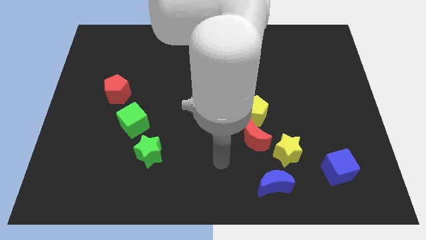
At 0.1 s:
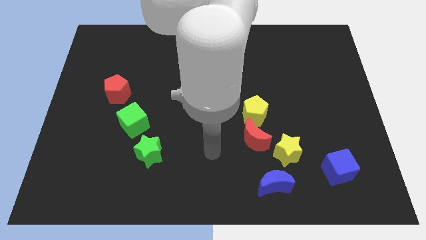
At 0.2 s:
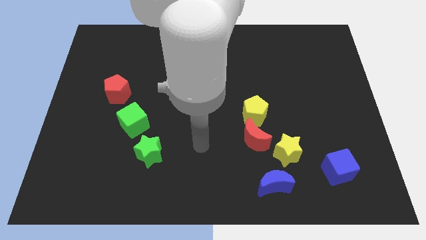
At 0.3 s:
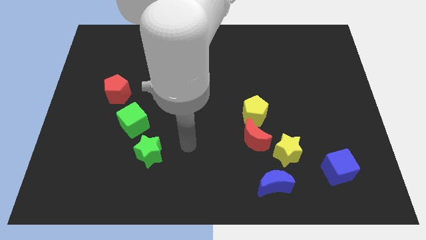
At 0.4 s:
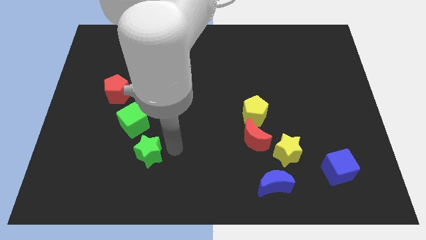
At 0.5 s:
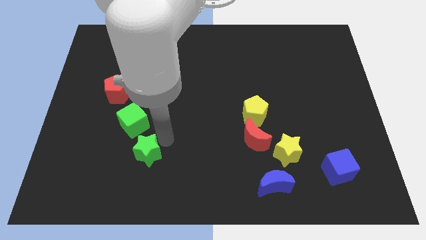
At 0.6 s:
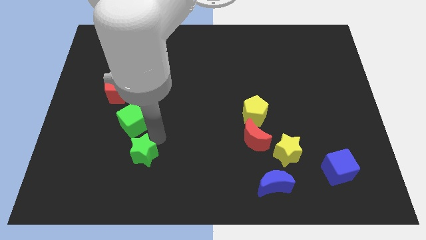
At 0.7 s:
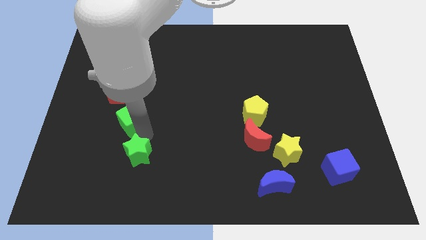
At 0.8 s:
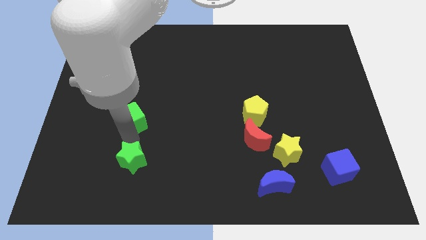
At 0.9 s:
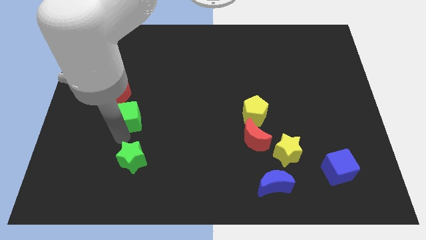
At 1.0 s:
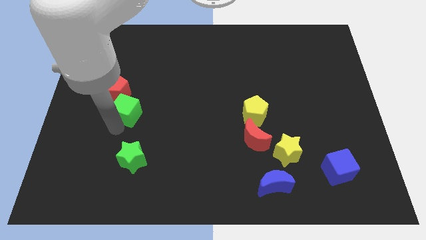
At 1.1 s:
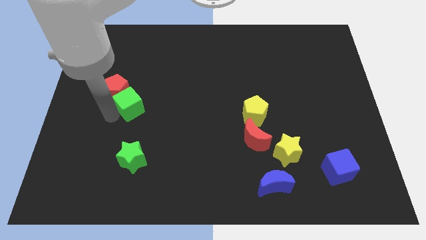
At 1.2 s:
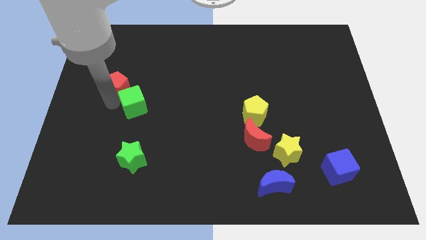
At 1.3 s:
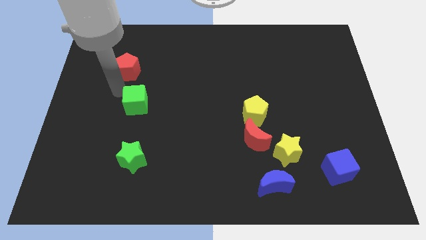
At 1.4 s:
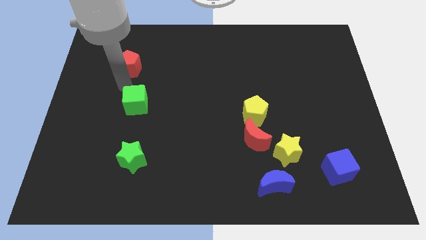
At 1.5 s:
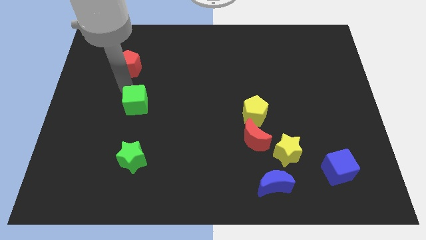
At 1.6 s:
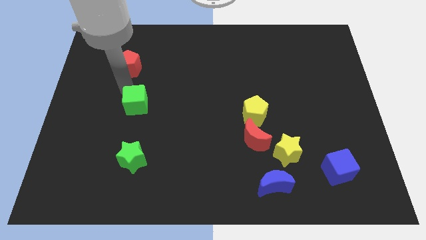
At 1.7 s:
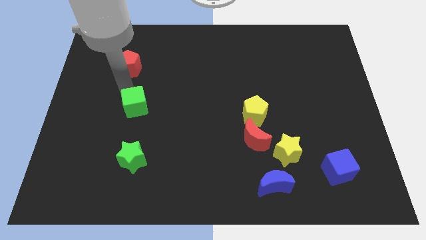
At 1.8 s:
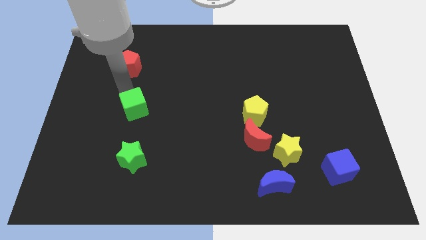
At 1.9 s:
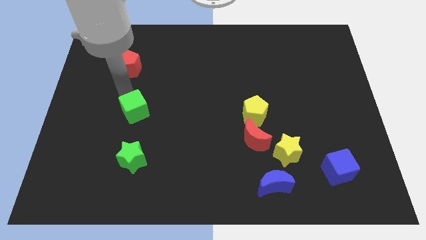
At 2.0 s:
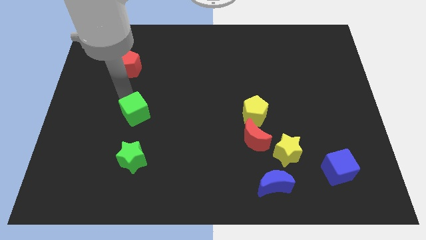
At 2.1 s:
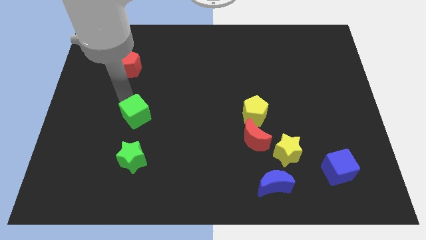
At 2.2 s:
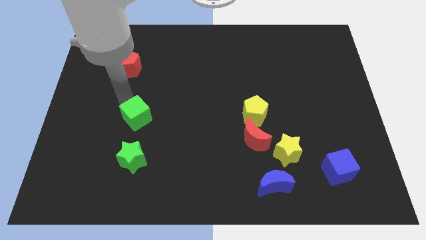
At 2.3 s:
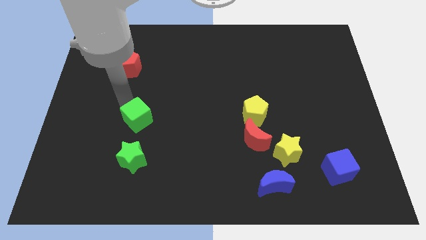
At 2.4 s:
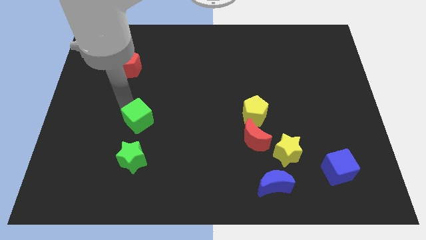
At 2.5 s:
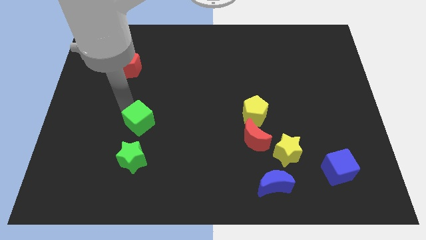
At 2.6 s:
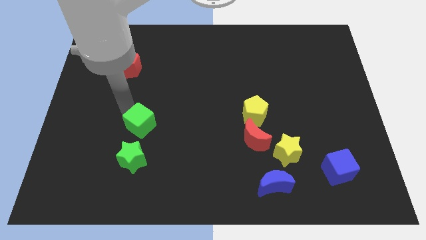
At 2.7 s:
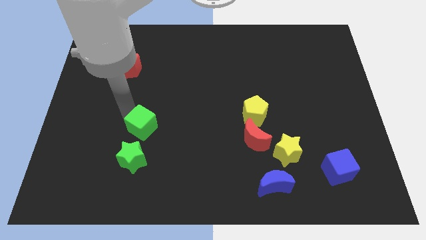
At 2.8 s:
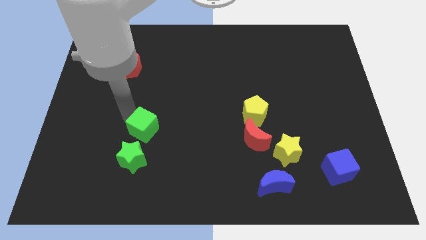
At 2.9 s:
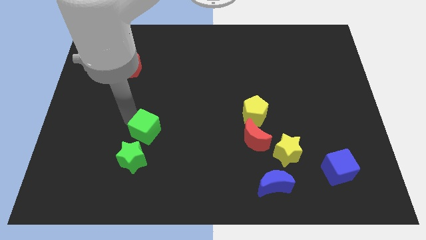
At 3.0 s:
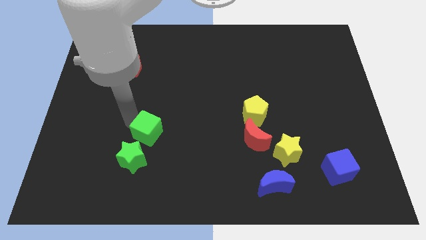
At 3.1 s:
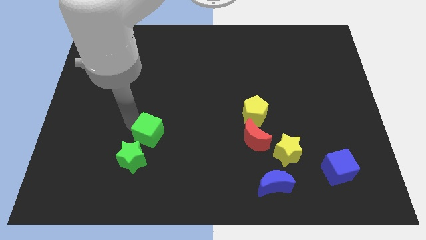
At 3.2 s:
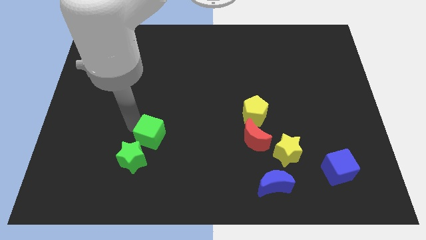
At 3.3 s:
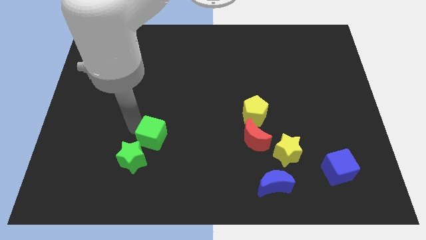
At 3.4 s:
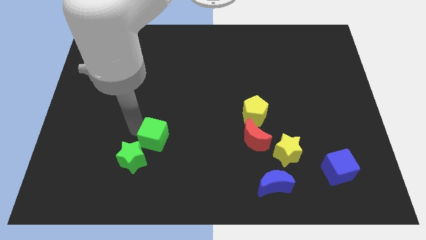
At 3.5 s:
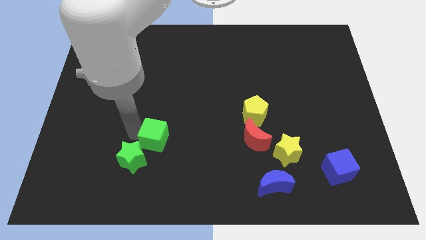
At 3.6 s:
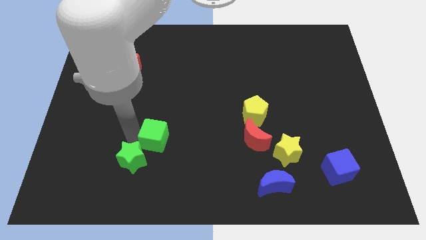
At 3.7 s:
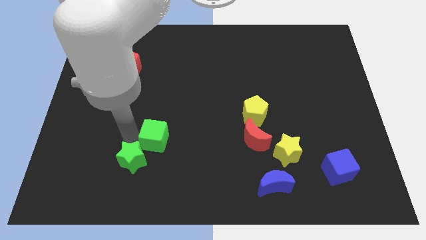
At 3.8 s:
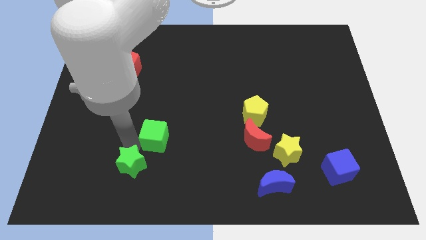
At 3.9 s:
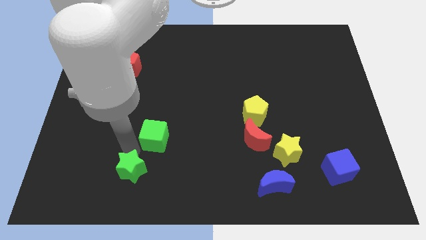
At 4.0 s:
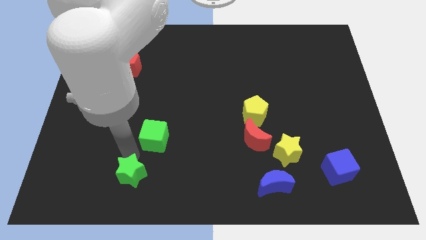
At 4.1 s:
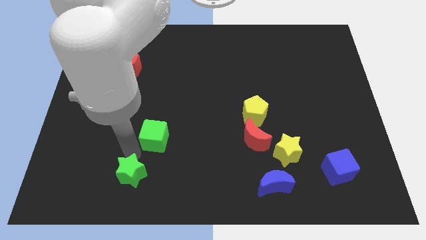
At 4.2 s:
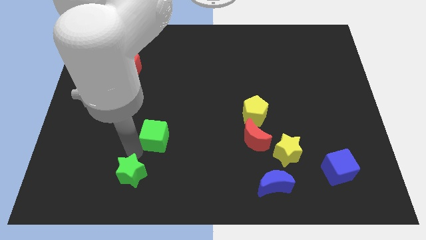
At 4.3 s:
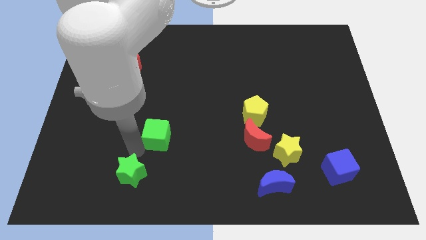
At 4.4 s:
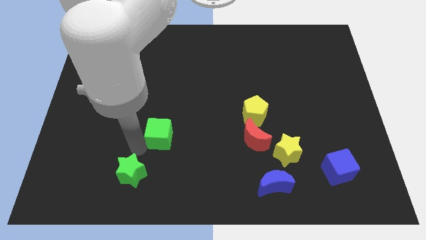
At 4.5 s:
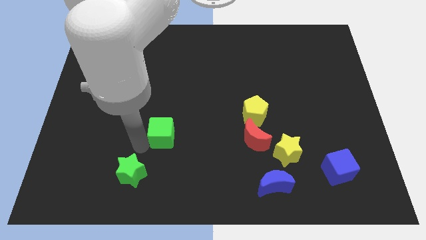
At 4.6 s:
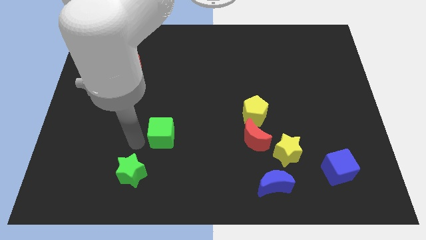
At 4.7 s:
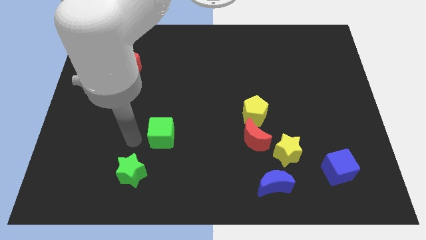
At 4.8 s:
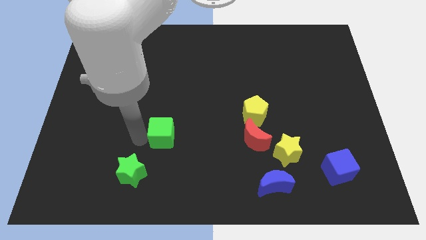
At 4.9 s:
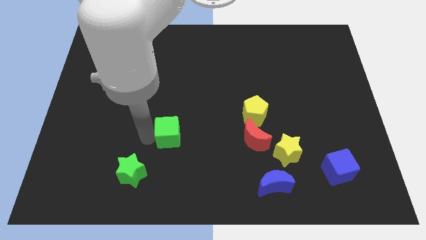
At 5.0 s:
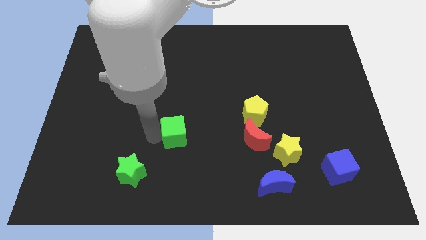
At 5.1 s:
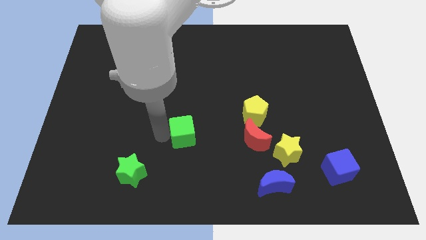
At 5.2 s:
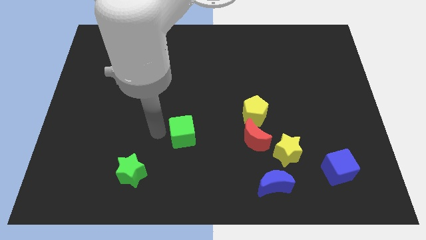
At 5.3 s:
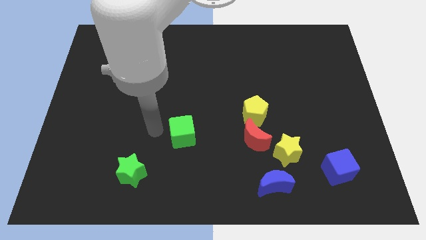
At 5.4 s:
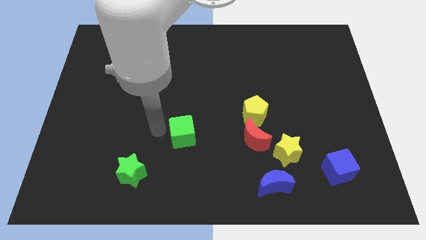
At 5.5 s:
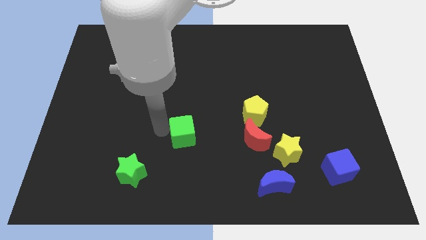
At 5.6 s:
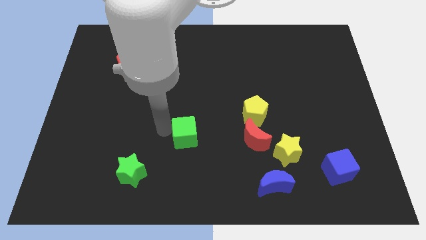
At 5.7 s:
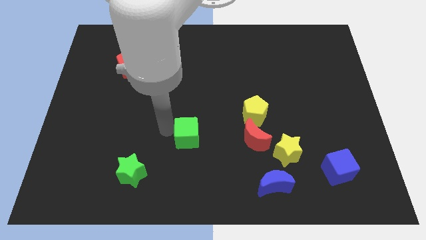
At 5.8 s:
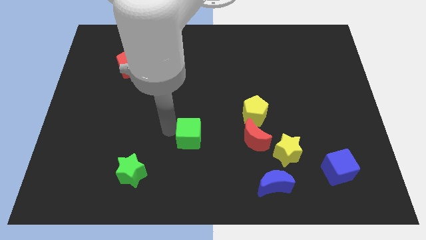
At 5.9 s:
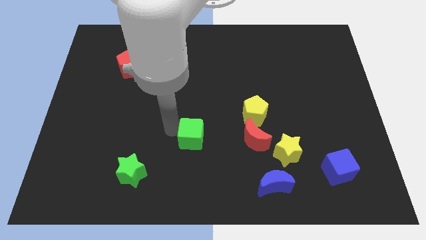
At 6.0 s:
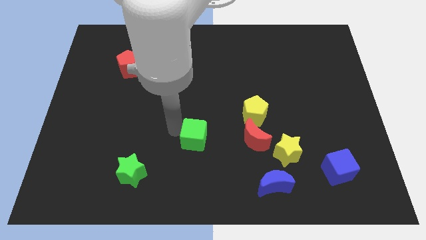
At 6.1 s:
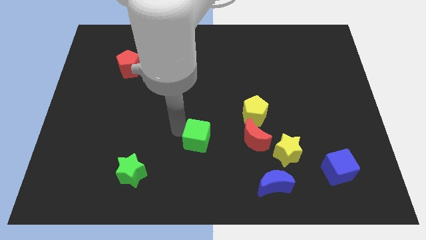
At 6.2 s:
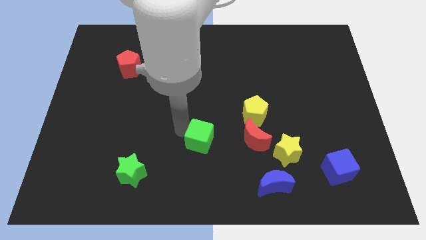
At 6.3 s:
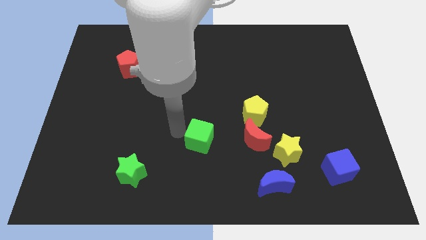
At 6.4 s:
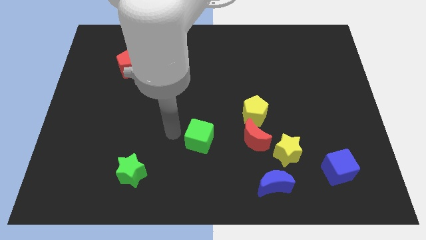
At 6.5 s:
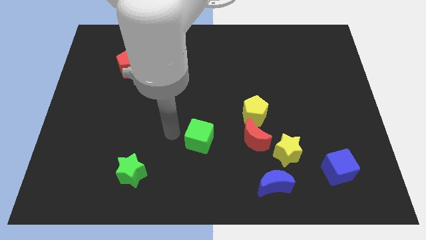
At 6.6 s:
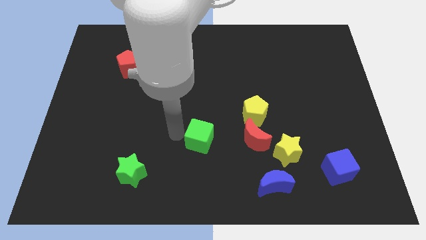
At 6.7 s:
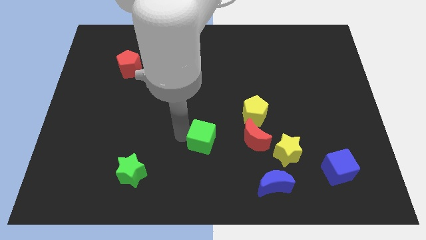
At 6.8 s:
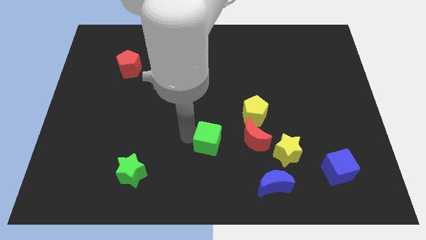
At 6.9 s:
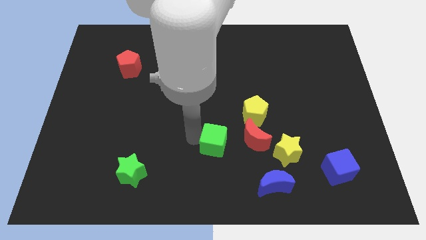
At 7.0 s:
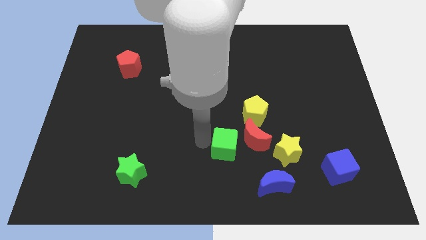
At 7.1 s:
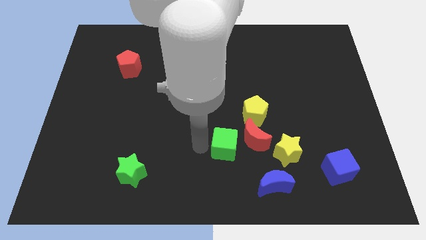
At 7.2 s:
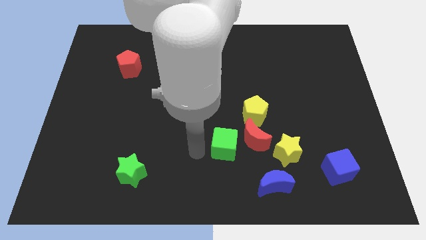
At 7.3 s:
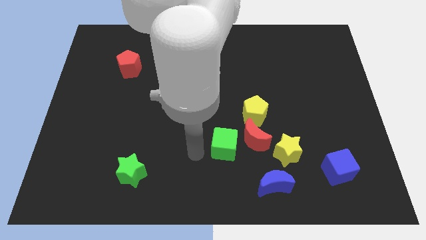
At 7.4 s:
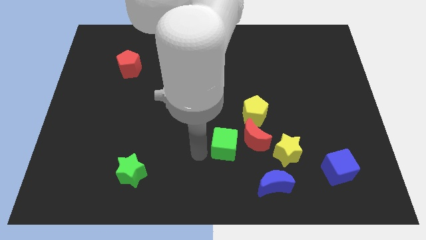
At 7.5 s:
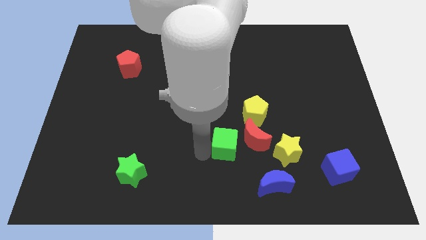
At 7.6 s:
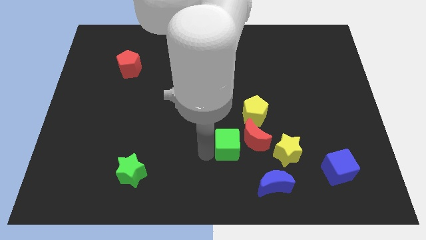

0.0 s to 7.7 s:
push the green cube close to the red moon
